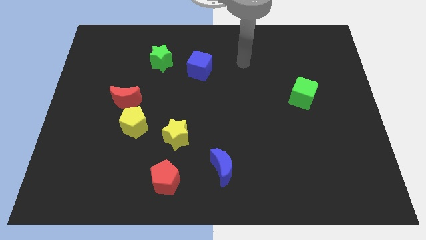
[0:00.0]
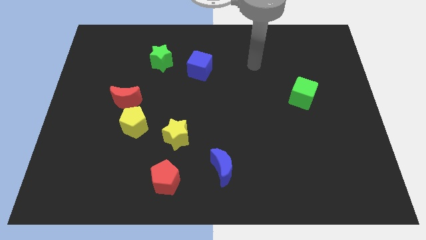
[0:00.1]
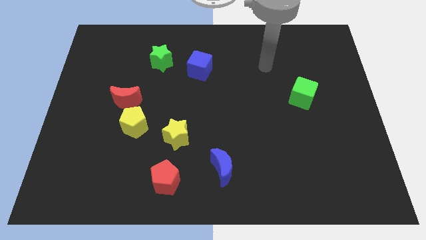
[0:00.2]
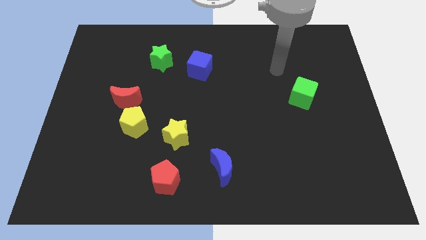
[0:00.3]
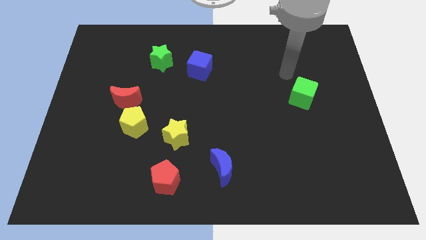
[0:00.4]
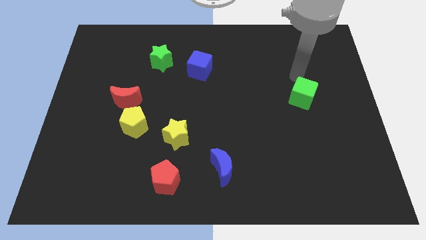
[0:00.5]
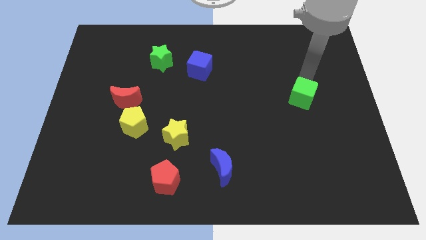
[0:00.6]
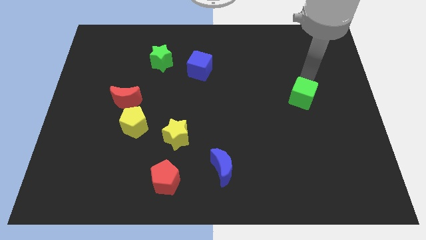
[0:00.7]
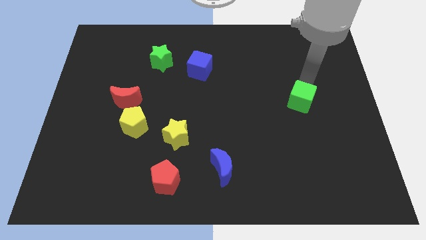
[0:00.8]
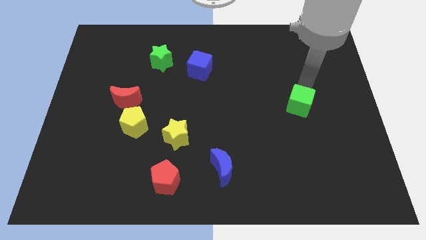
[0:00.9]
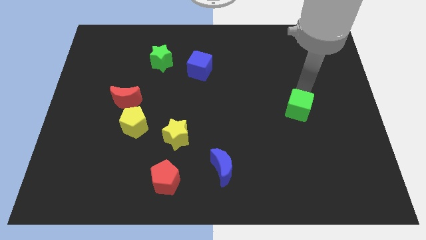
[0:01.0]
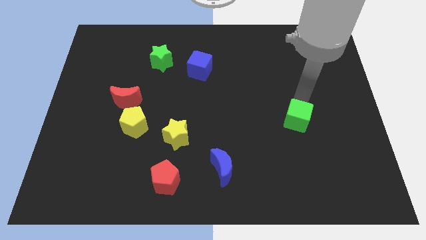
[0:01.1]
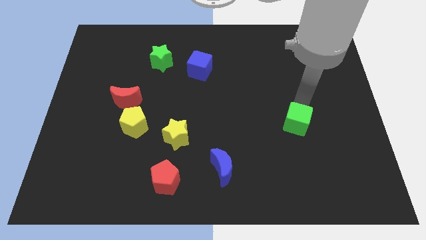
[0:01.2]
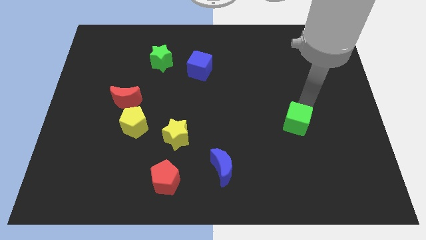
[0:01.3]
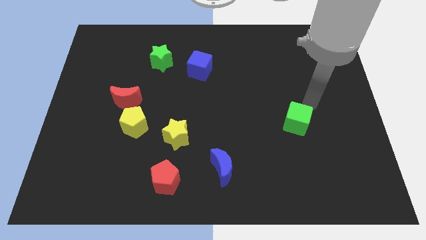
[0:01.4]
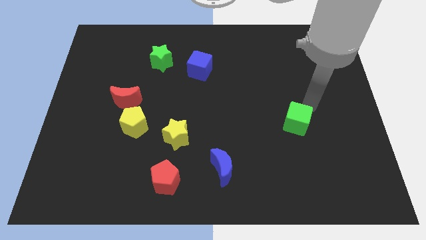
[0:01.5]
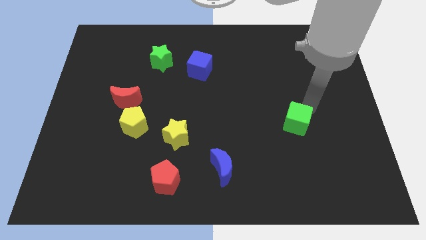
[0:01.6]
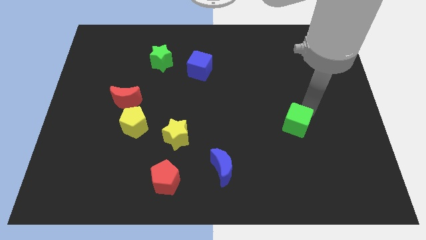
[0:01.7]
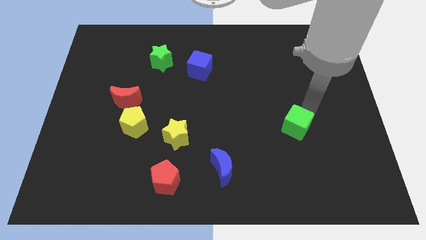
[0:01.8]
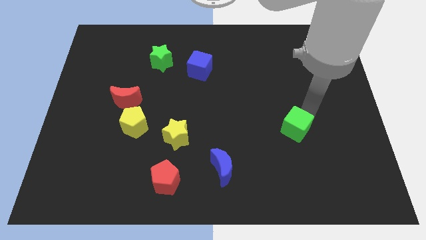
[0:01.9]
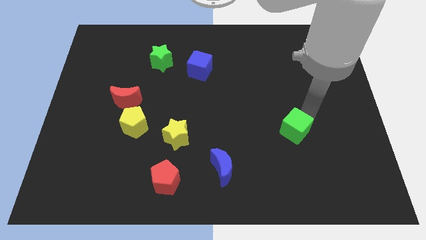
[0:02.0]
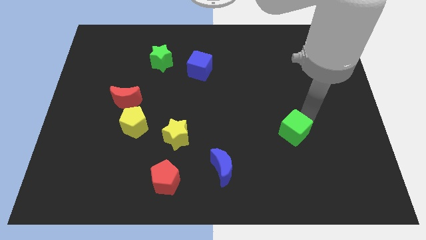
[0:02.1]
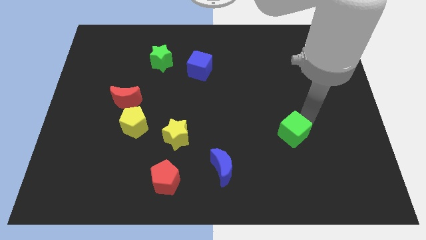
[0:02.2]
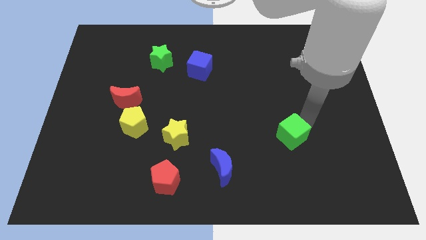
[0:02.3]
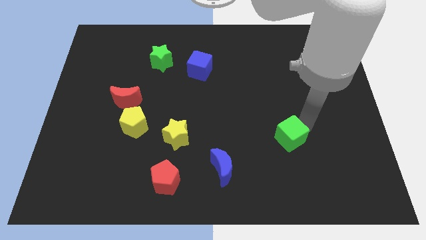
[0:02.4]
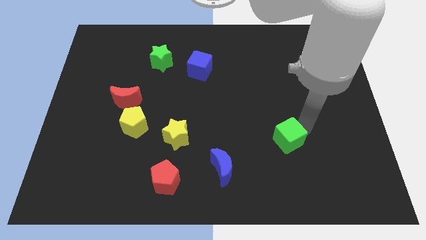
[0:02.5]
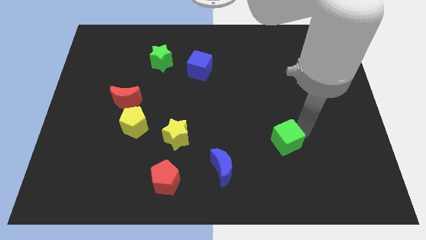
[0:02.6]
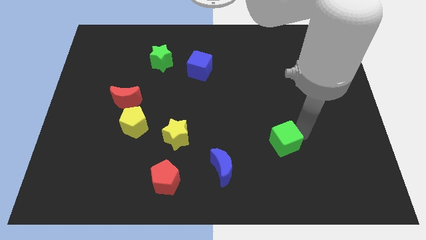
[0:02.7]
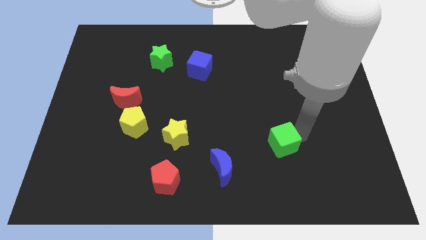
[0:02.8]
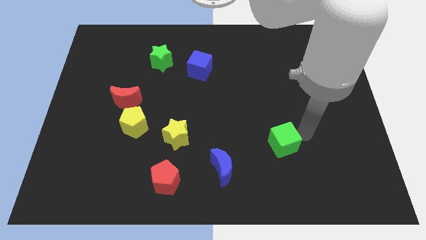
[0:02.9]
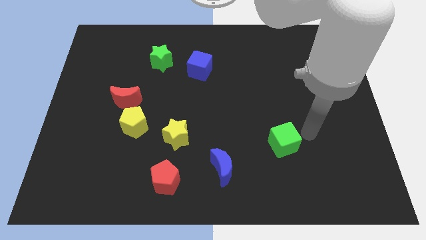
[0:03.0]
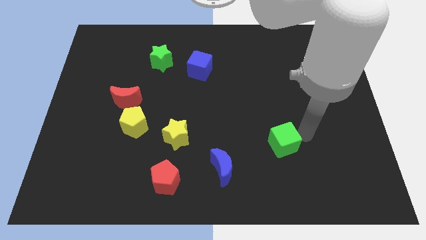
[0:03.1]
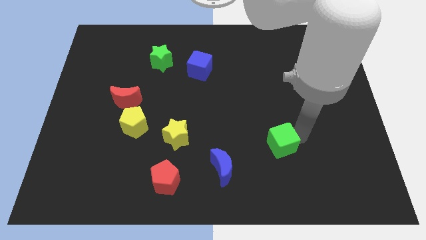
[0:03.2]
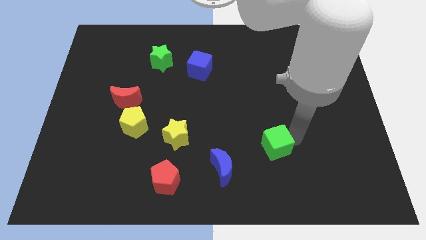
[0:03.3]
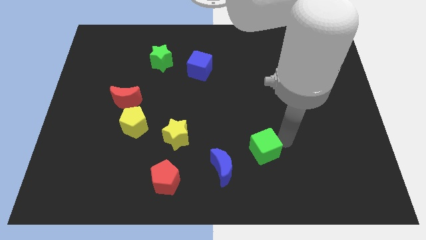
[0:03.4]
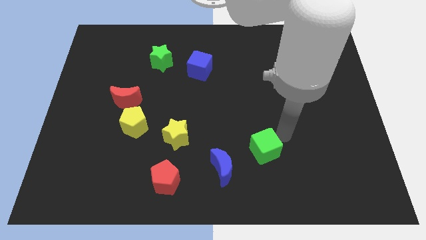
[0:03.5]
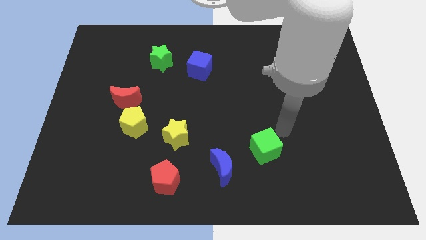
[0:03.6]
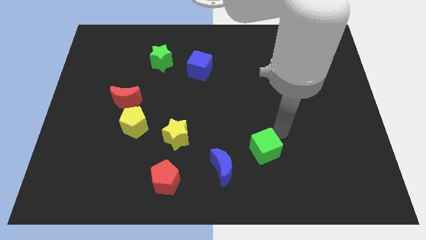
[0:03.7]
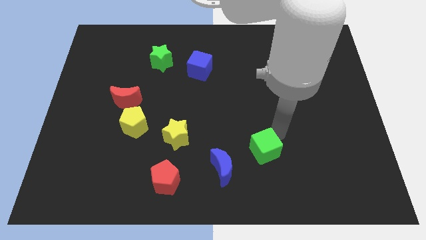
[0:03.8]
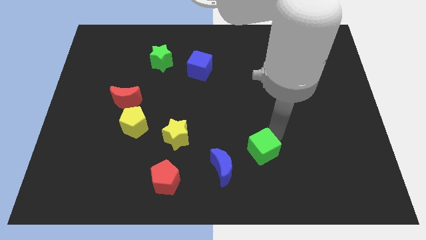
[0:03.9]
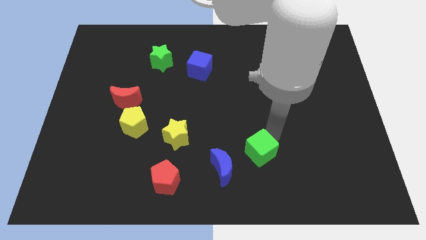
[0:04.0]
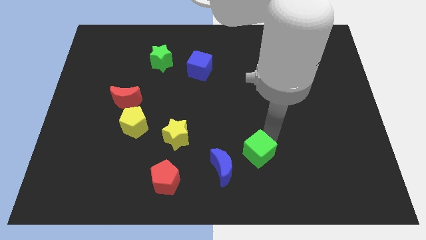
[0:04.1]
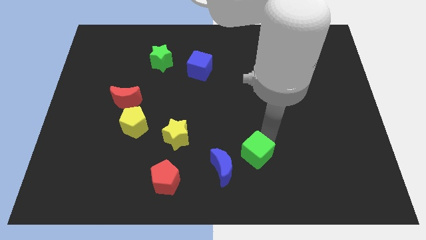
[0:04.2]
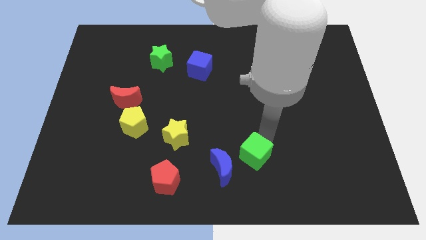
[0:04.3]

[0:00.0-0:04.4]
slide the green cube downwards and left

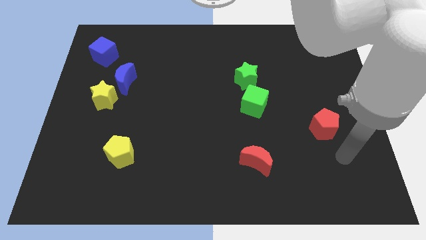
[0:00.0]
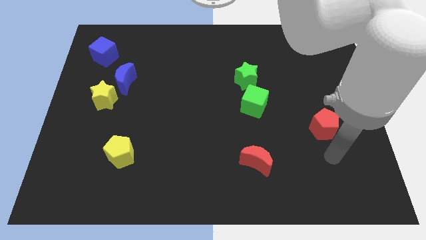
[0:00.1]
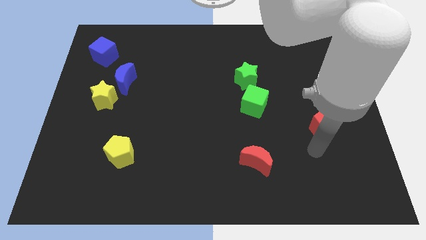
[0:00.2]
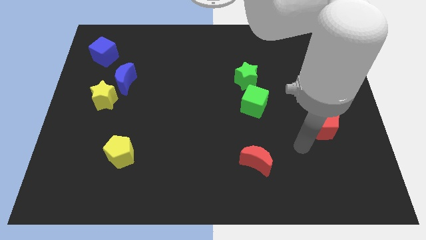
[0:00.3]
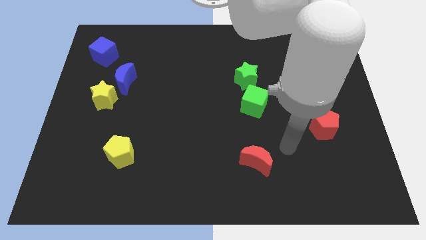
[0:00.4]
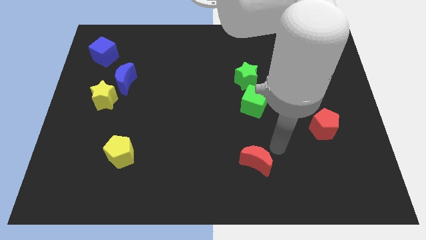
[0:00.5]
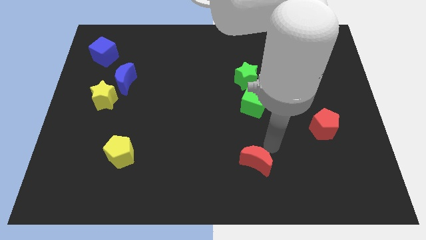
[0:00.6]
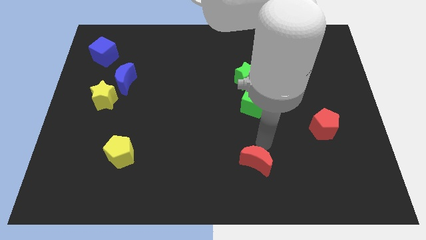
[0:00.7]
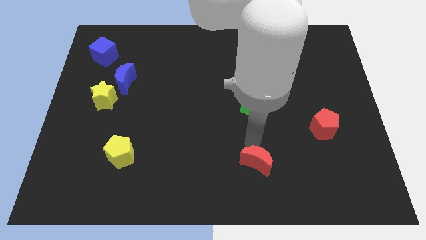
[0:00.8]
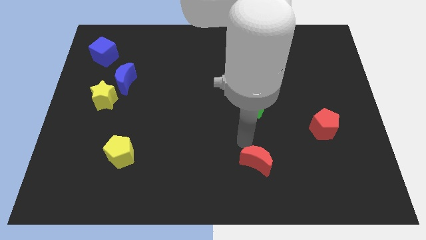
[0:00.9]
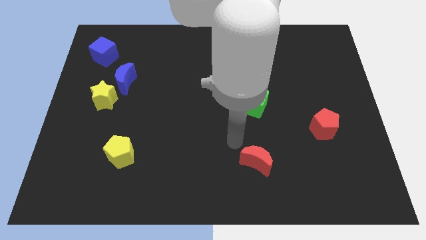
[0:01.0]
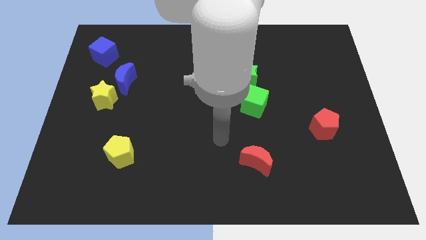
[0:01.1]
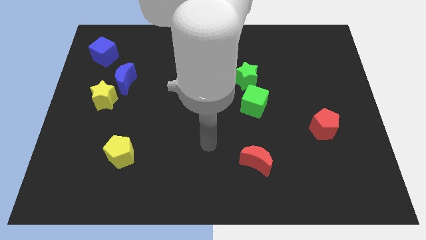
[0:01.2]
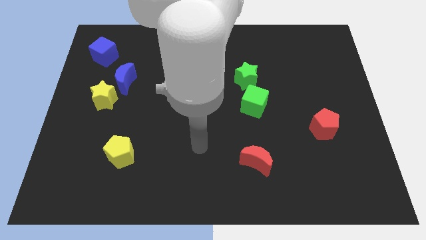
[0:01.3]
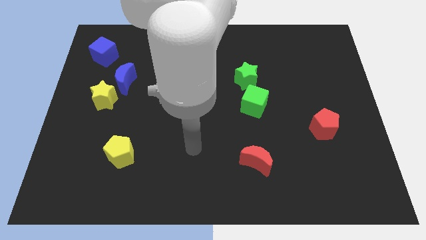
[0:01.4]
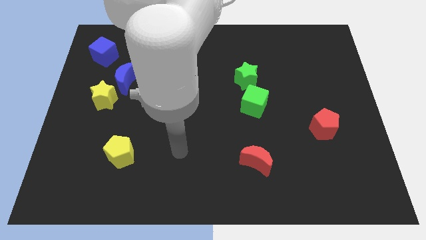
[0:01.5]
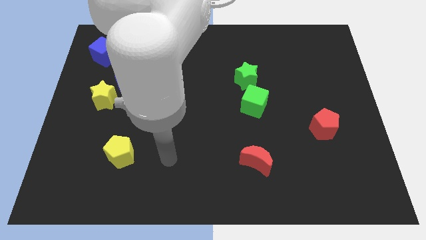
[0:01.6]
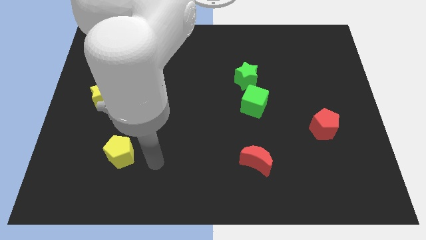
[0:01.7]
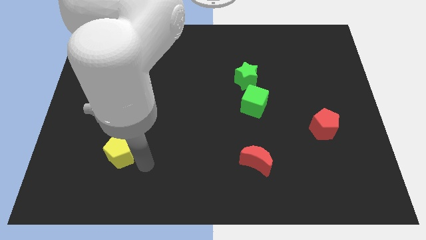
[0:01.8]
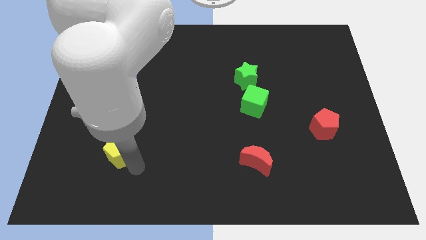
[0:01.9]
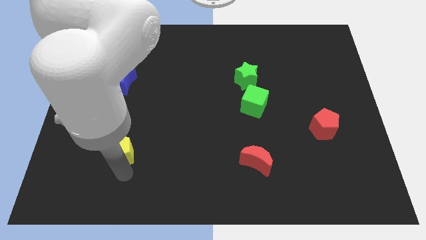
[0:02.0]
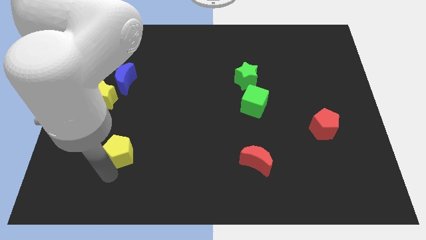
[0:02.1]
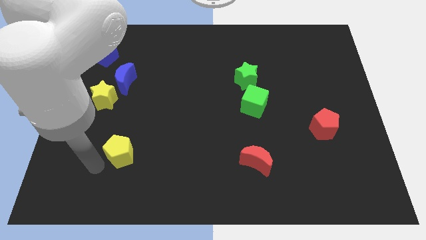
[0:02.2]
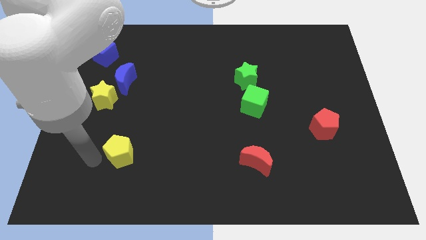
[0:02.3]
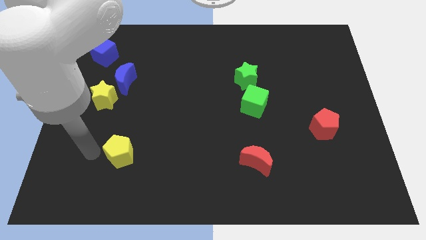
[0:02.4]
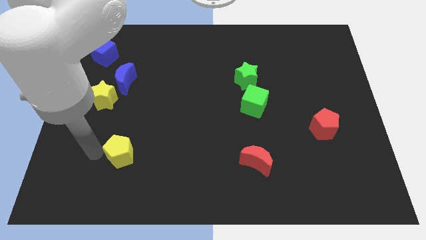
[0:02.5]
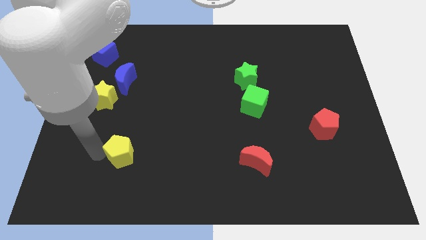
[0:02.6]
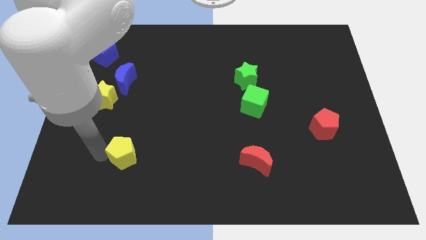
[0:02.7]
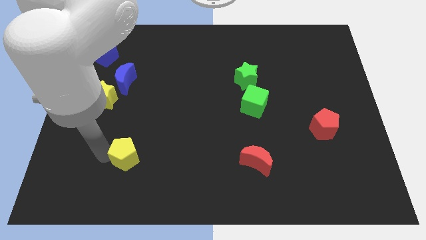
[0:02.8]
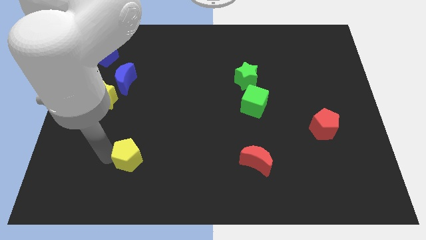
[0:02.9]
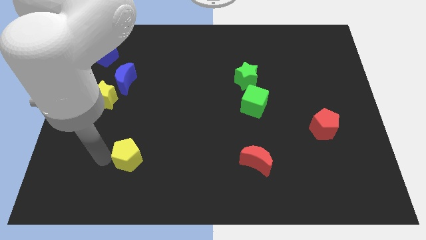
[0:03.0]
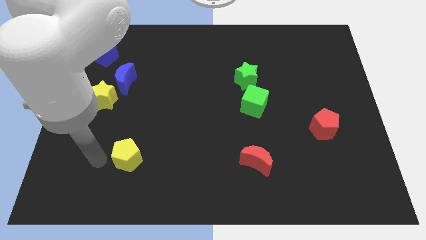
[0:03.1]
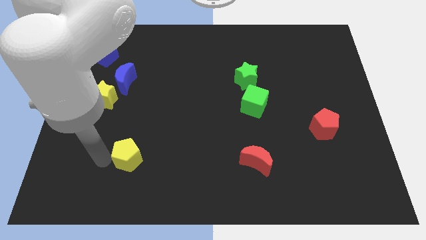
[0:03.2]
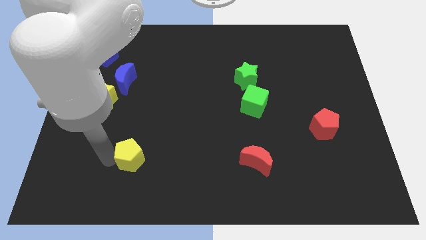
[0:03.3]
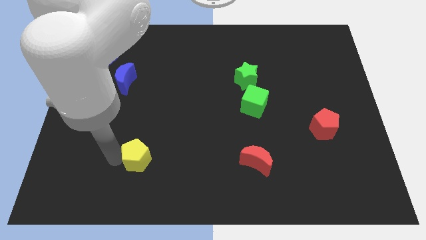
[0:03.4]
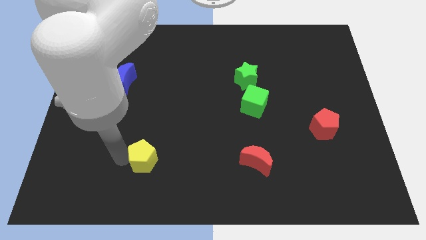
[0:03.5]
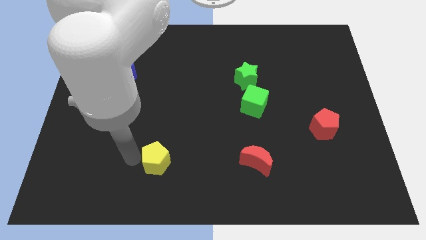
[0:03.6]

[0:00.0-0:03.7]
slightly push the yellow pentagon to the right

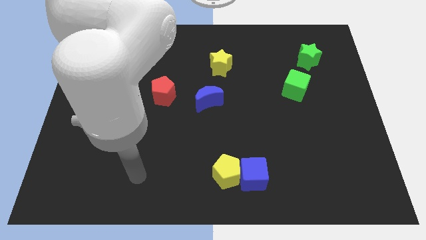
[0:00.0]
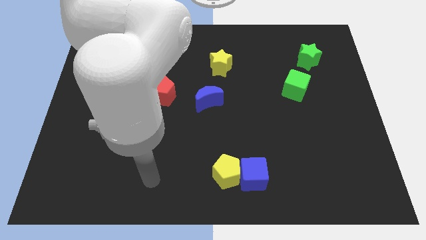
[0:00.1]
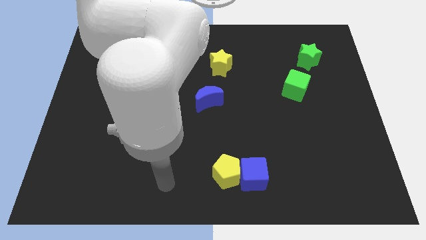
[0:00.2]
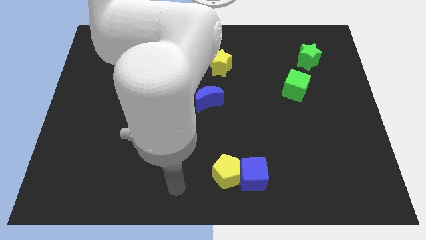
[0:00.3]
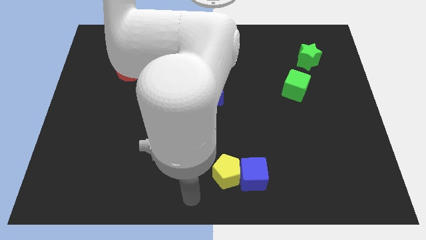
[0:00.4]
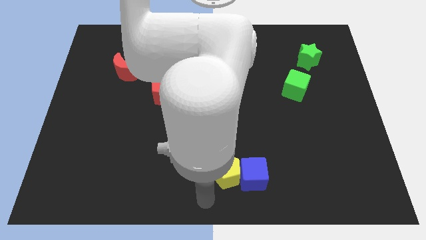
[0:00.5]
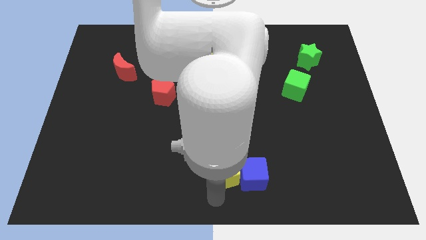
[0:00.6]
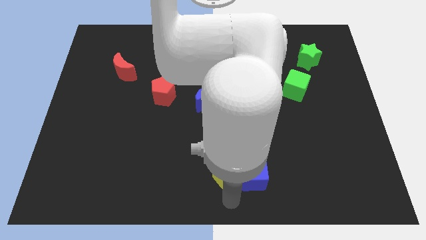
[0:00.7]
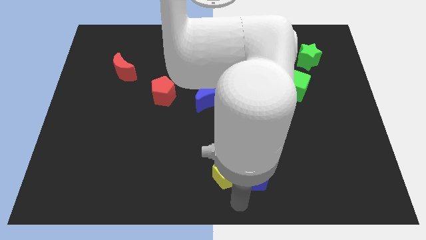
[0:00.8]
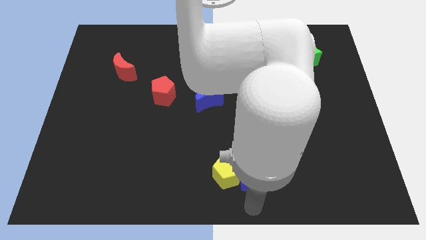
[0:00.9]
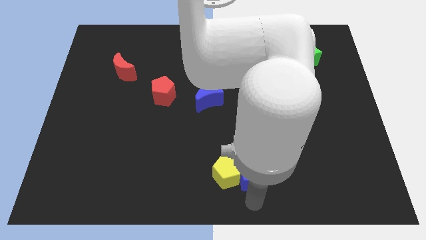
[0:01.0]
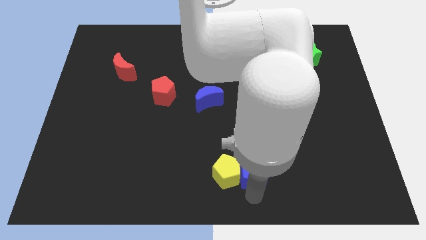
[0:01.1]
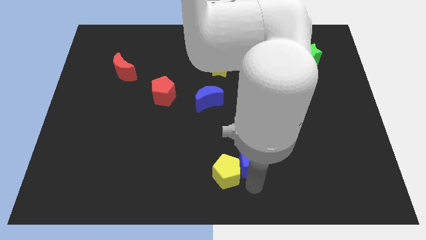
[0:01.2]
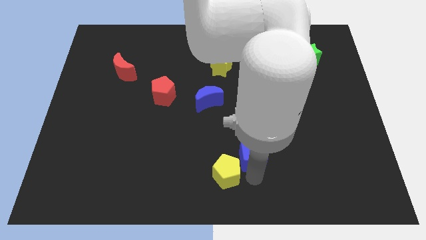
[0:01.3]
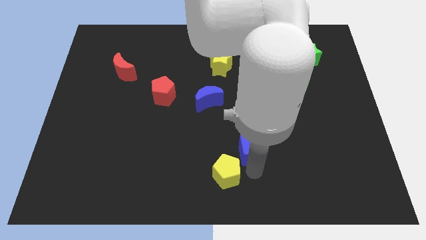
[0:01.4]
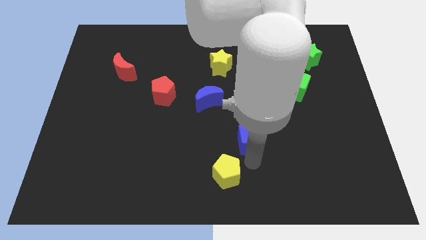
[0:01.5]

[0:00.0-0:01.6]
push the blue cube up a little
